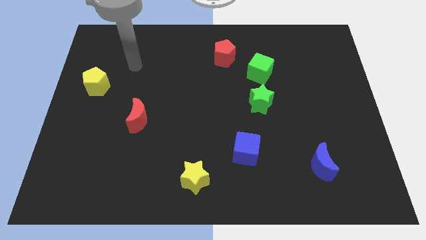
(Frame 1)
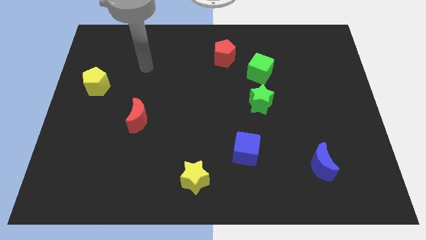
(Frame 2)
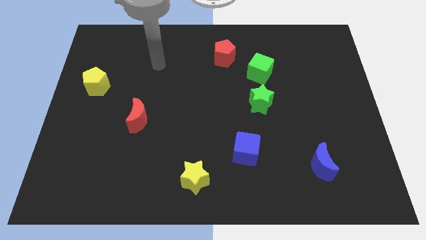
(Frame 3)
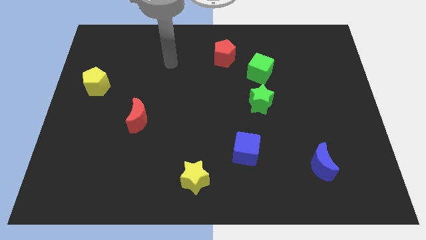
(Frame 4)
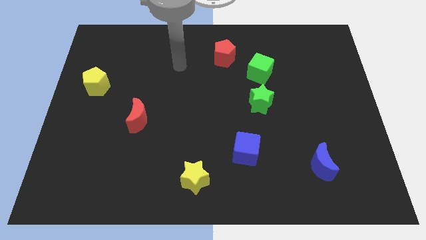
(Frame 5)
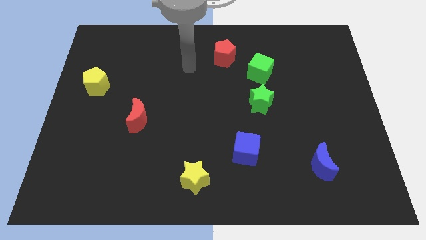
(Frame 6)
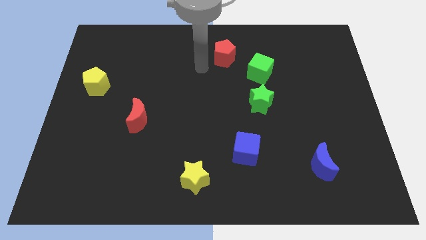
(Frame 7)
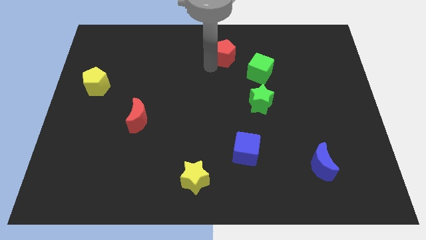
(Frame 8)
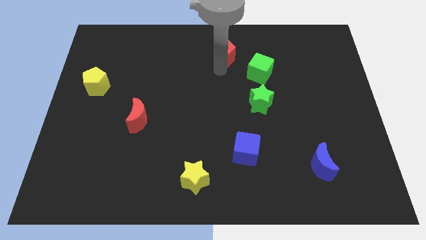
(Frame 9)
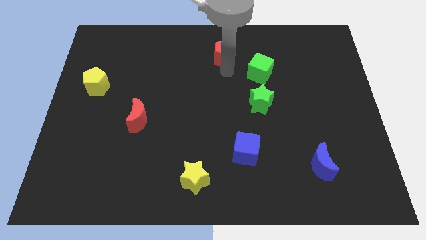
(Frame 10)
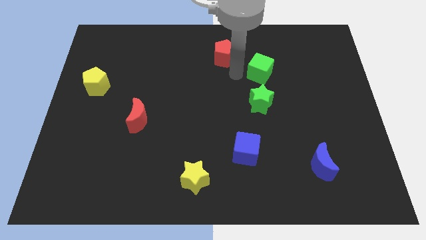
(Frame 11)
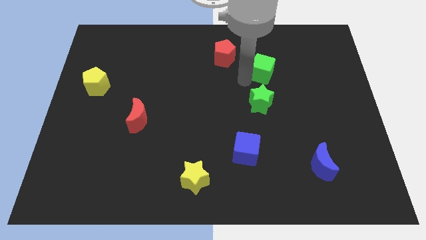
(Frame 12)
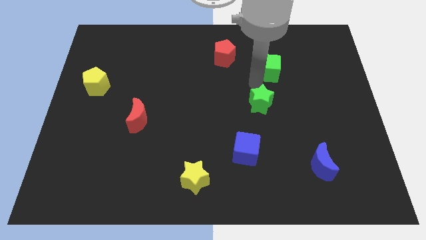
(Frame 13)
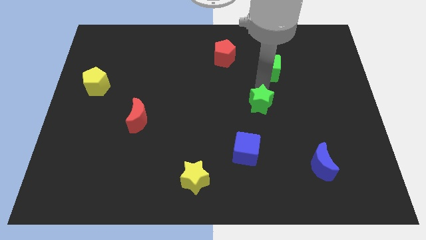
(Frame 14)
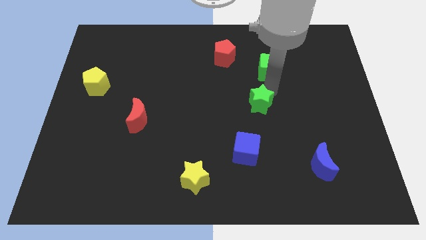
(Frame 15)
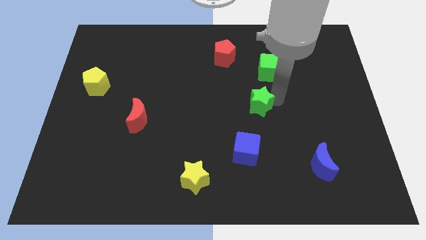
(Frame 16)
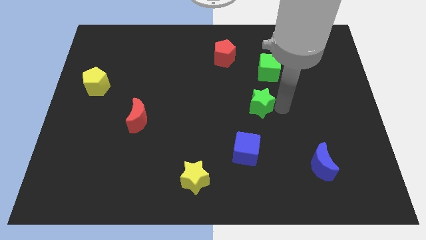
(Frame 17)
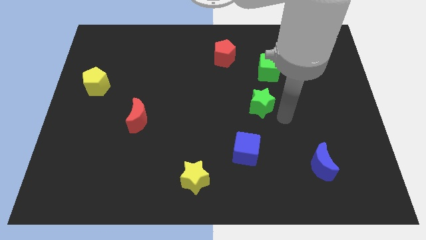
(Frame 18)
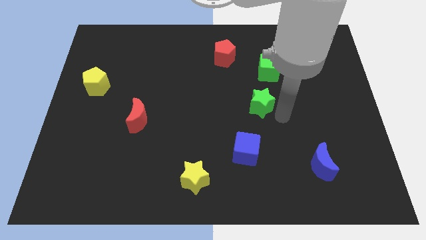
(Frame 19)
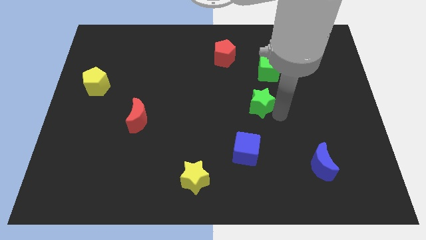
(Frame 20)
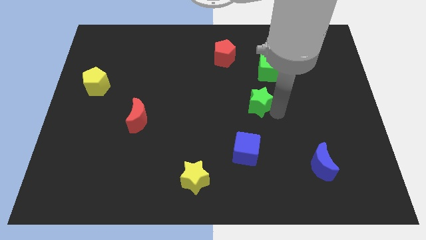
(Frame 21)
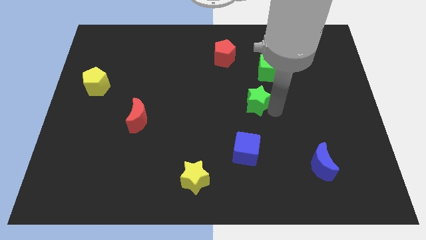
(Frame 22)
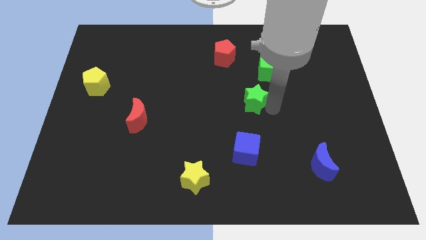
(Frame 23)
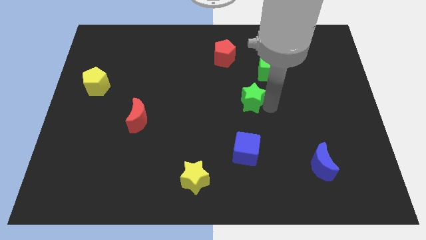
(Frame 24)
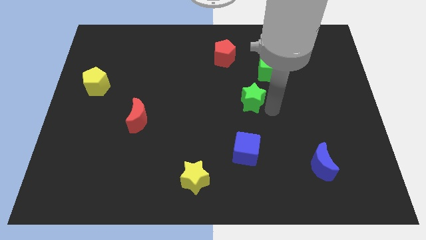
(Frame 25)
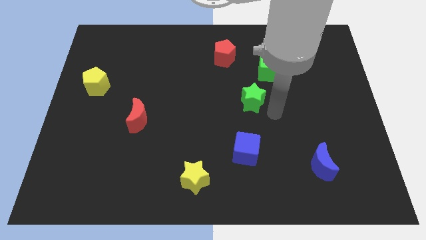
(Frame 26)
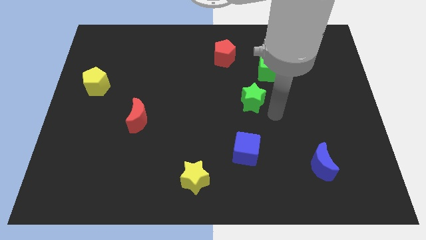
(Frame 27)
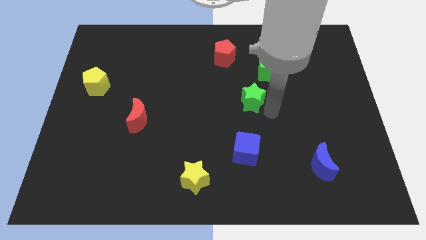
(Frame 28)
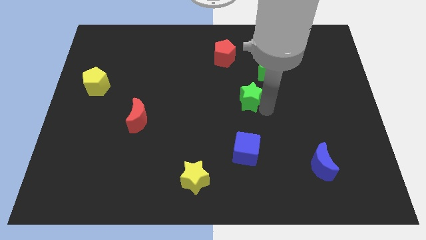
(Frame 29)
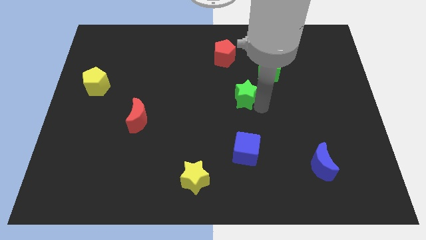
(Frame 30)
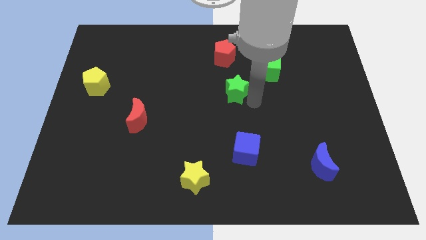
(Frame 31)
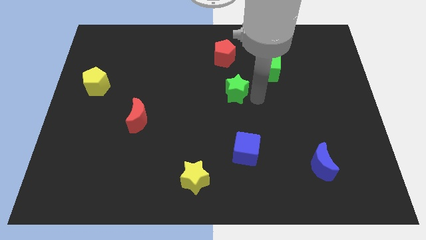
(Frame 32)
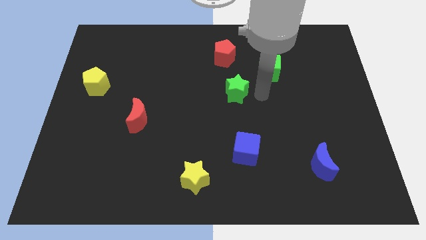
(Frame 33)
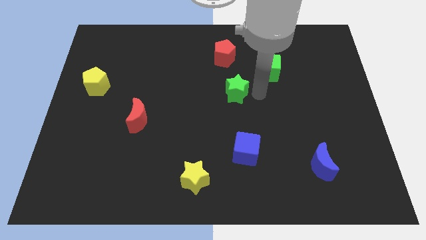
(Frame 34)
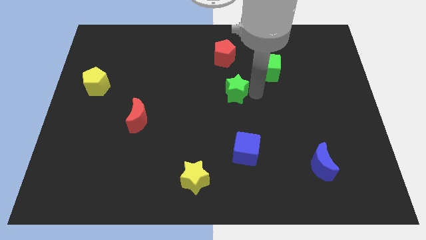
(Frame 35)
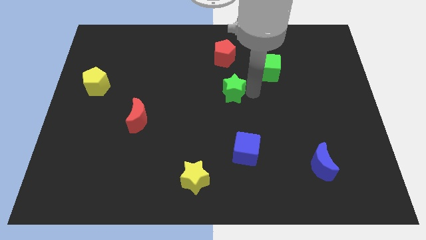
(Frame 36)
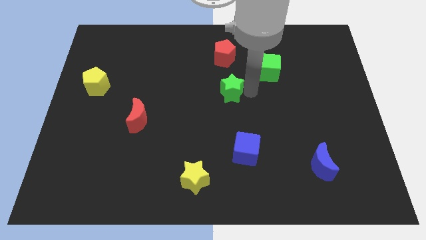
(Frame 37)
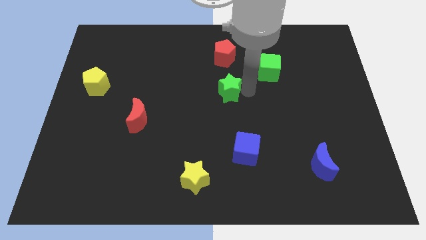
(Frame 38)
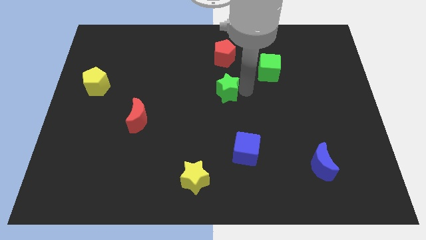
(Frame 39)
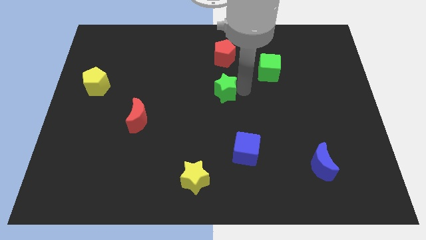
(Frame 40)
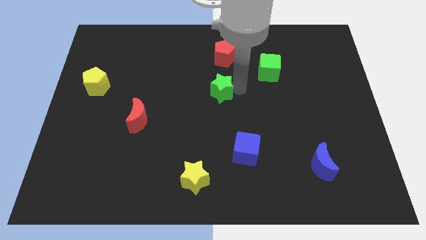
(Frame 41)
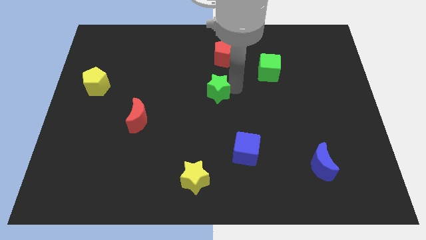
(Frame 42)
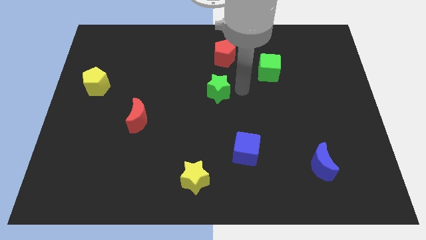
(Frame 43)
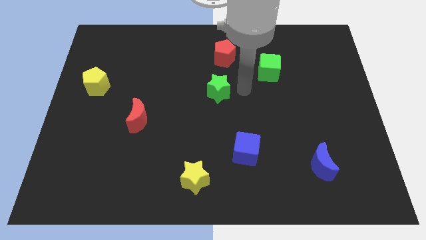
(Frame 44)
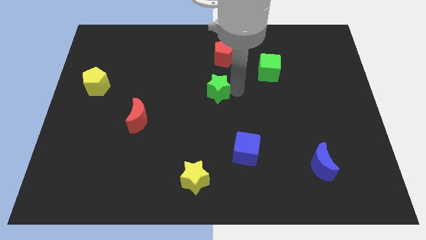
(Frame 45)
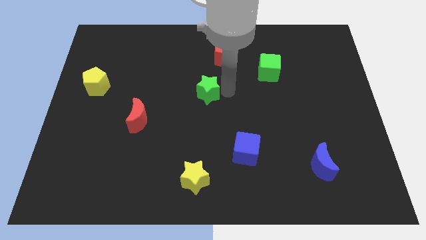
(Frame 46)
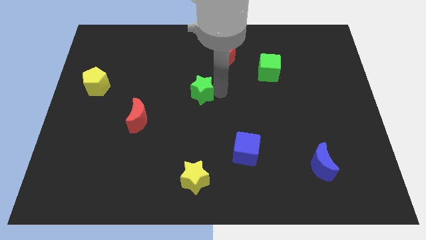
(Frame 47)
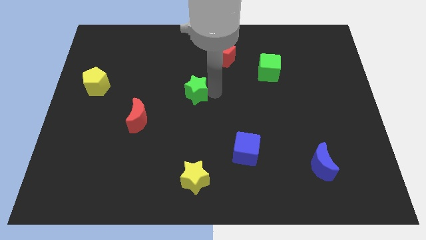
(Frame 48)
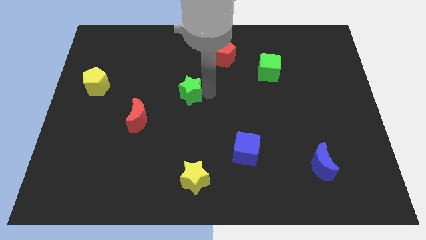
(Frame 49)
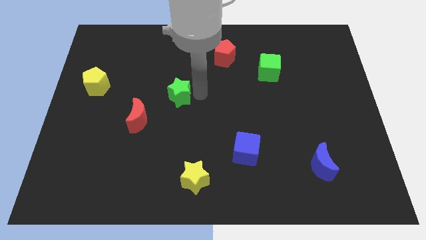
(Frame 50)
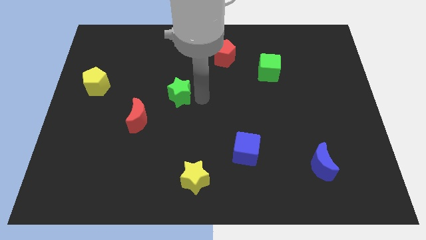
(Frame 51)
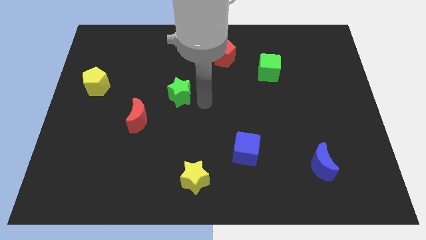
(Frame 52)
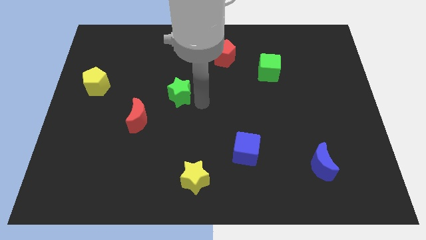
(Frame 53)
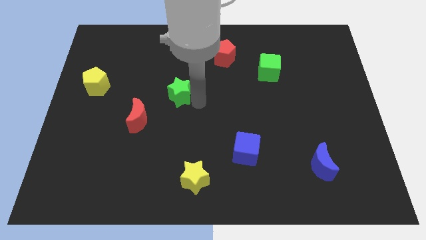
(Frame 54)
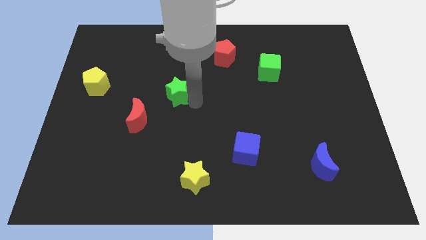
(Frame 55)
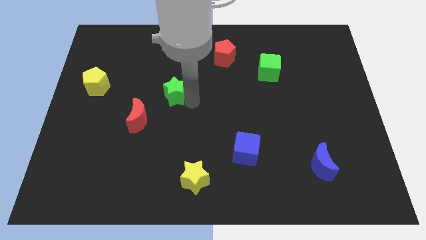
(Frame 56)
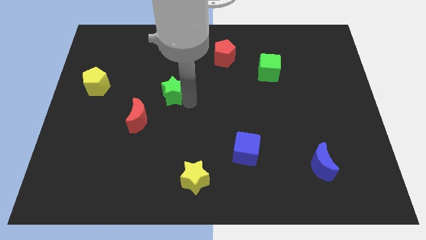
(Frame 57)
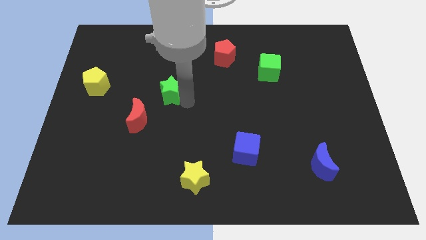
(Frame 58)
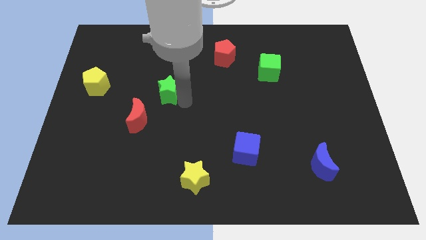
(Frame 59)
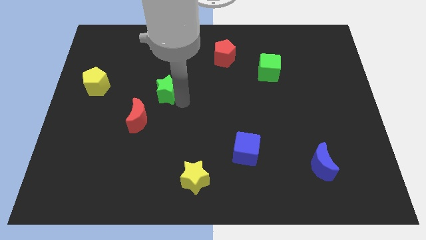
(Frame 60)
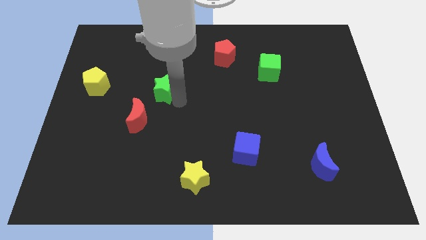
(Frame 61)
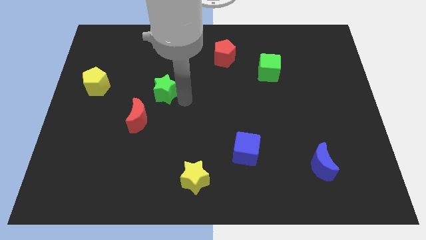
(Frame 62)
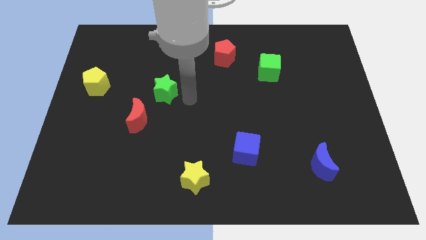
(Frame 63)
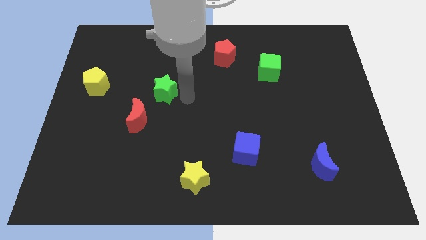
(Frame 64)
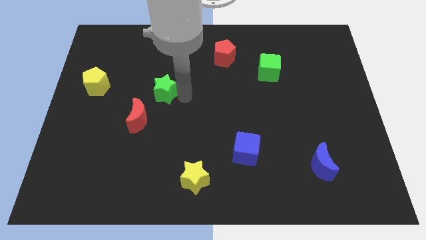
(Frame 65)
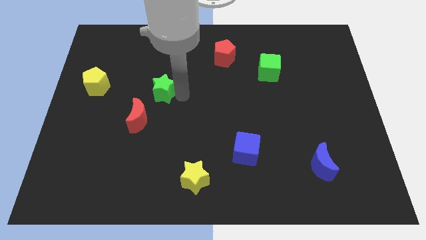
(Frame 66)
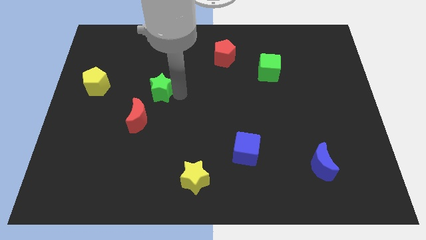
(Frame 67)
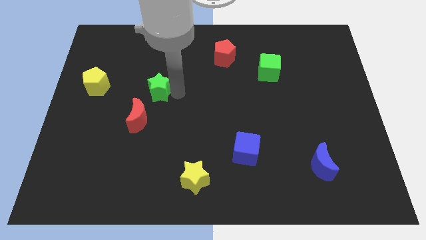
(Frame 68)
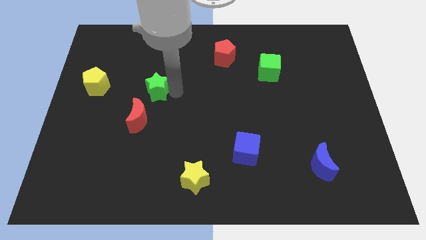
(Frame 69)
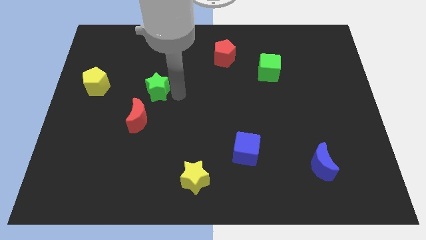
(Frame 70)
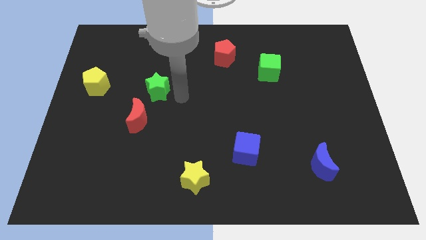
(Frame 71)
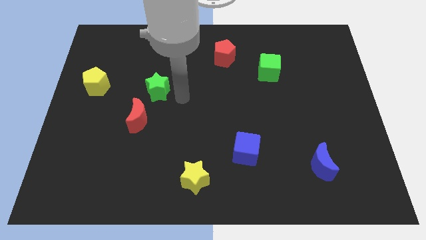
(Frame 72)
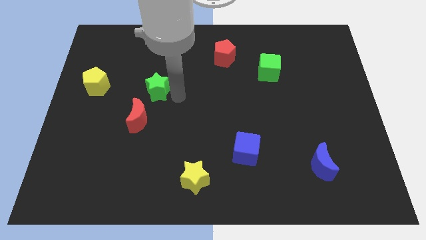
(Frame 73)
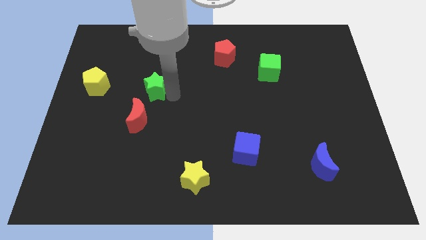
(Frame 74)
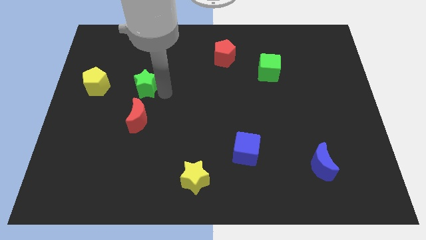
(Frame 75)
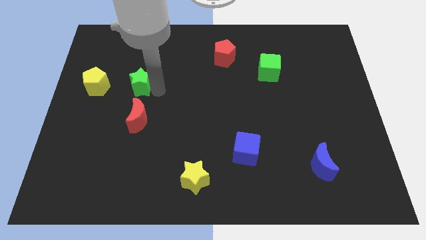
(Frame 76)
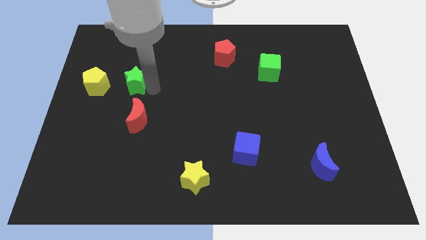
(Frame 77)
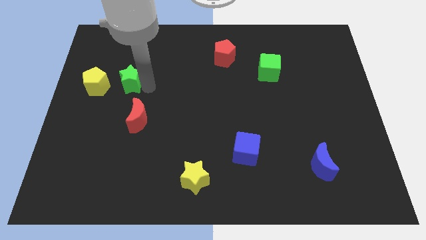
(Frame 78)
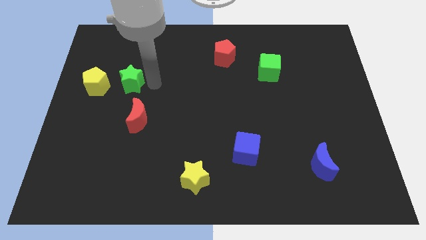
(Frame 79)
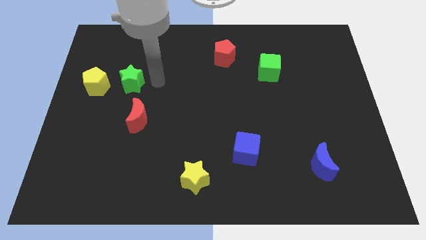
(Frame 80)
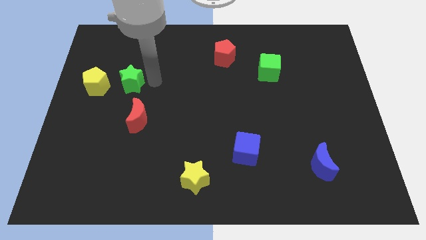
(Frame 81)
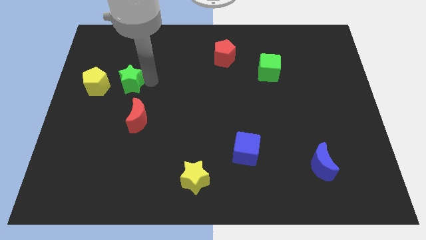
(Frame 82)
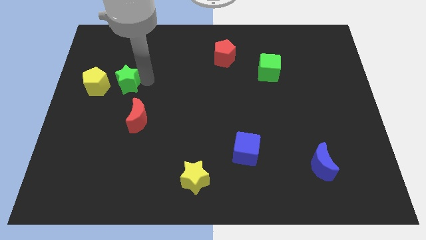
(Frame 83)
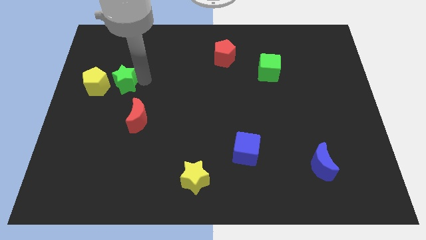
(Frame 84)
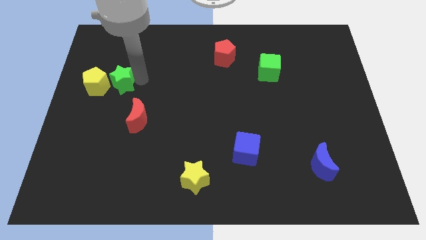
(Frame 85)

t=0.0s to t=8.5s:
move the green star towards the yellow pentagon
